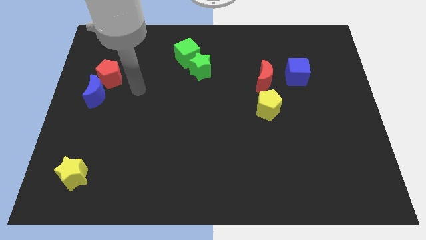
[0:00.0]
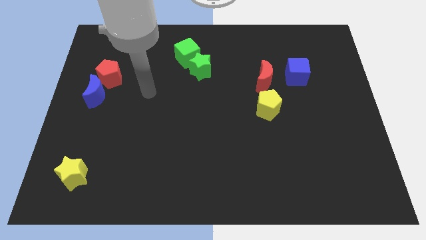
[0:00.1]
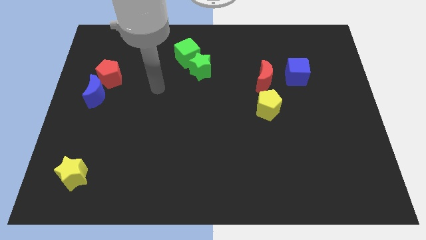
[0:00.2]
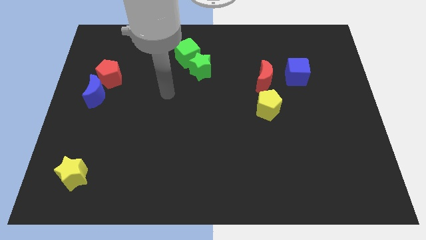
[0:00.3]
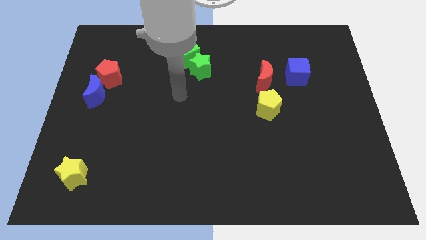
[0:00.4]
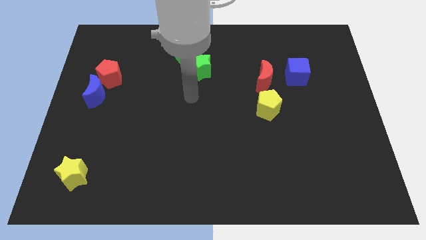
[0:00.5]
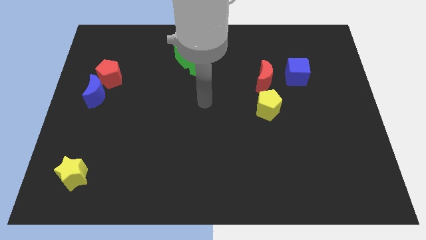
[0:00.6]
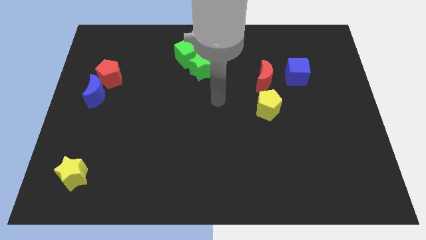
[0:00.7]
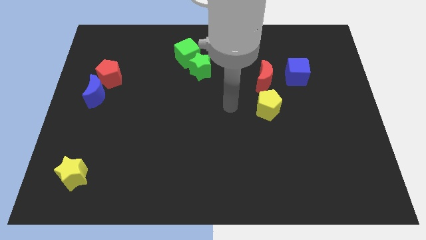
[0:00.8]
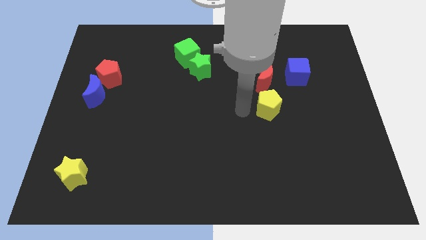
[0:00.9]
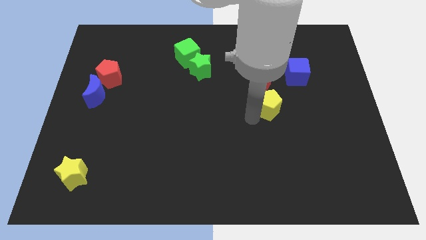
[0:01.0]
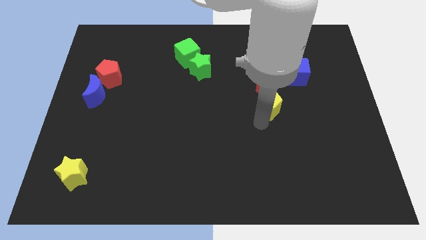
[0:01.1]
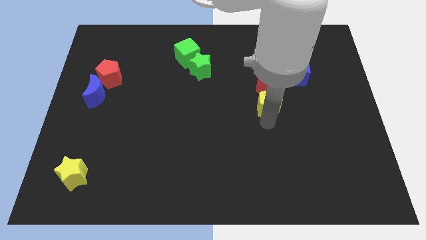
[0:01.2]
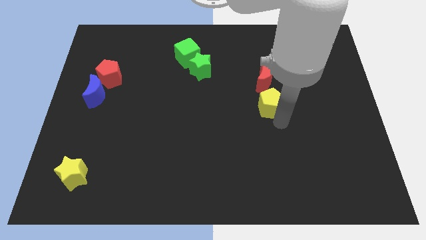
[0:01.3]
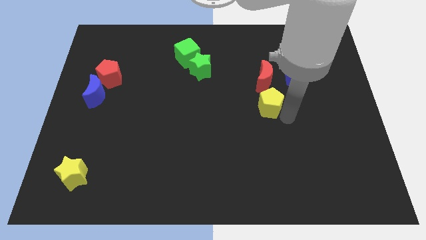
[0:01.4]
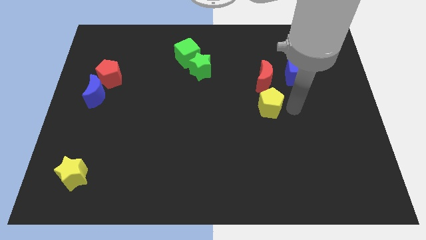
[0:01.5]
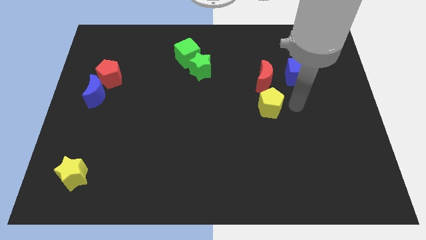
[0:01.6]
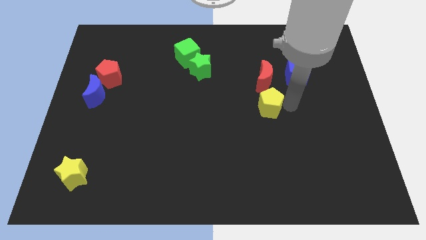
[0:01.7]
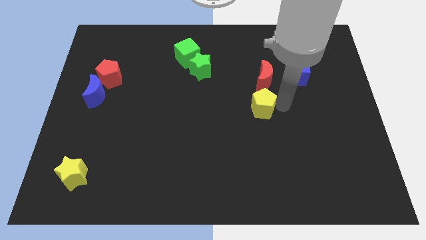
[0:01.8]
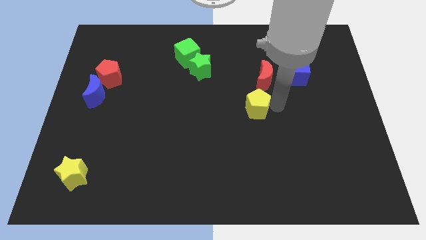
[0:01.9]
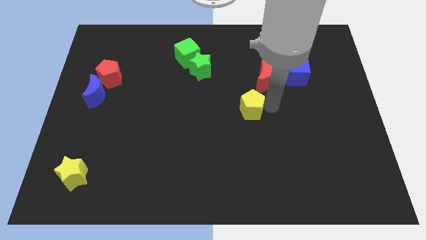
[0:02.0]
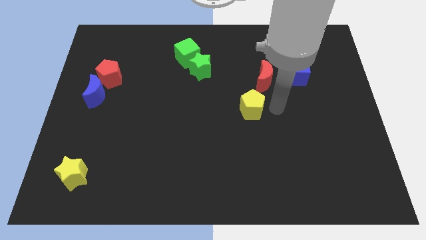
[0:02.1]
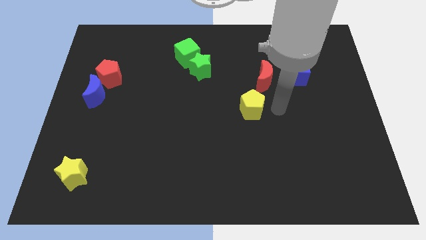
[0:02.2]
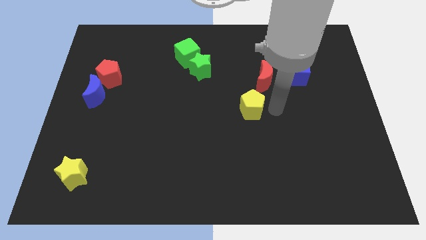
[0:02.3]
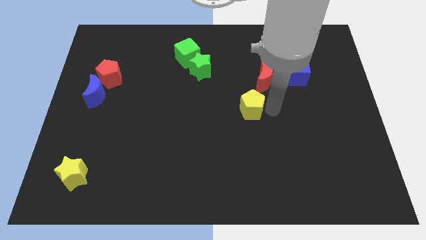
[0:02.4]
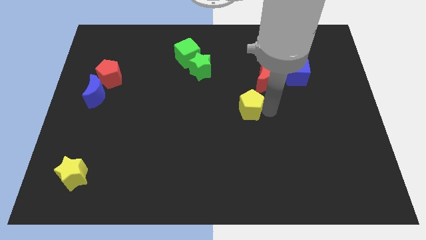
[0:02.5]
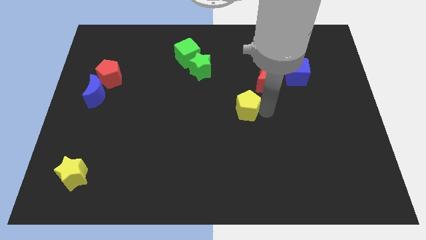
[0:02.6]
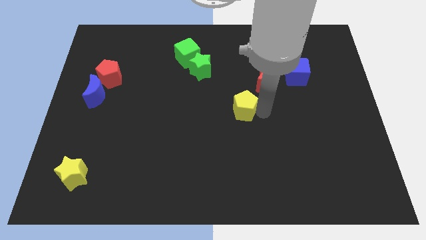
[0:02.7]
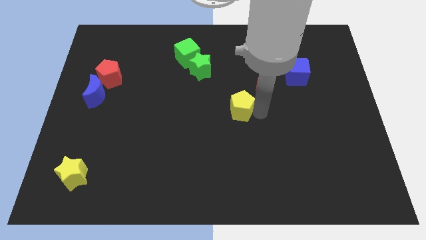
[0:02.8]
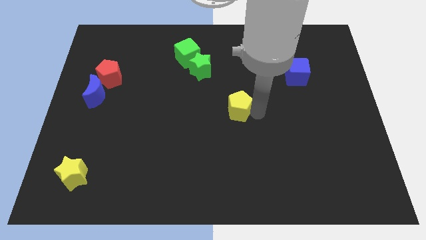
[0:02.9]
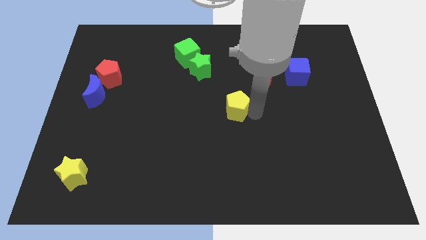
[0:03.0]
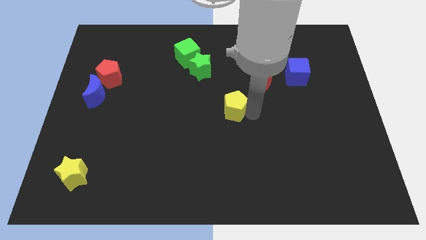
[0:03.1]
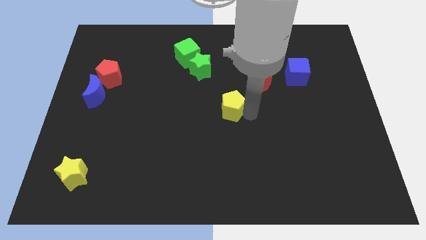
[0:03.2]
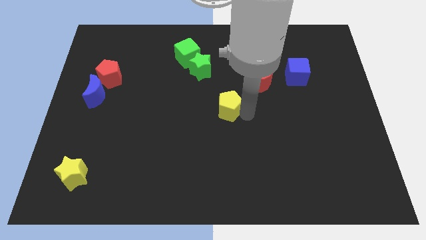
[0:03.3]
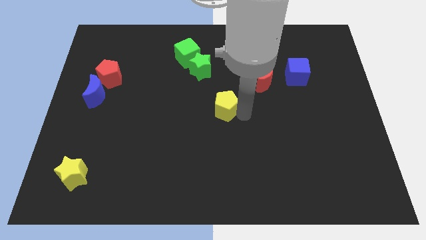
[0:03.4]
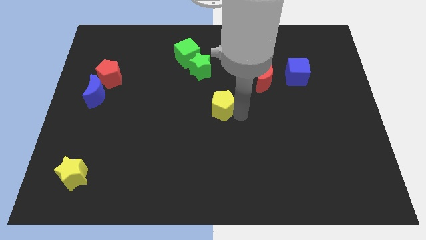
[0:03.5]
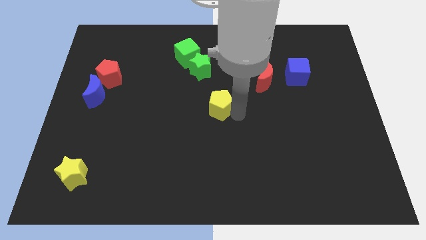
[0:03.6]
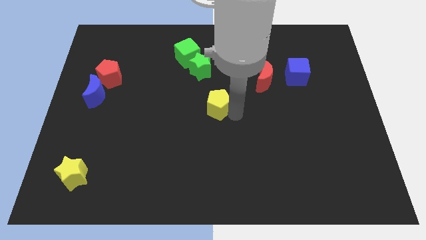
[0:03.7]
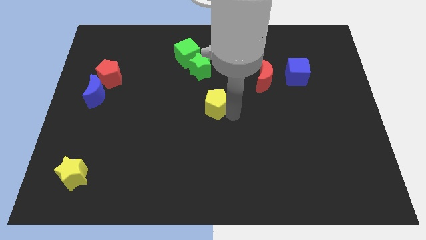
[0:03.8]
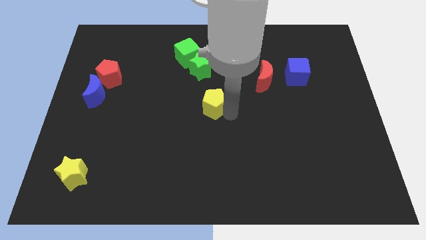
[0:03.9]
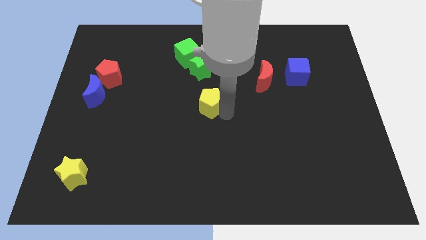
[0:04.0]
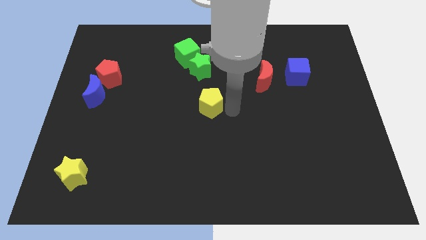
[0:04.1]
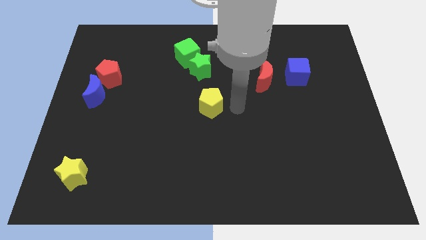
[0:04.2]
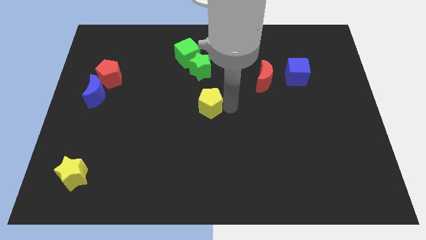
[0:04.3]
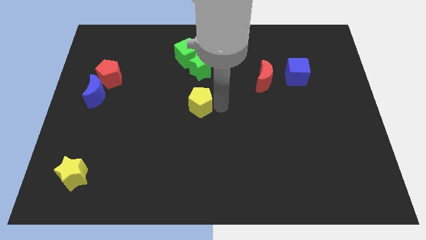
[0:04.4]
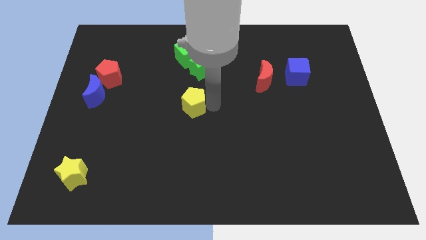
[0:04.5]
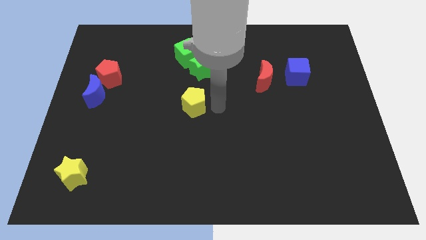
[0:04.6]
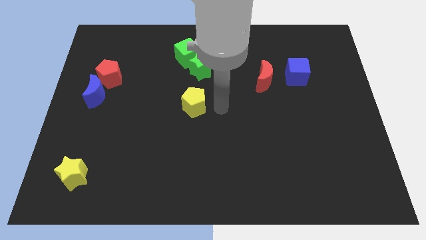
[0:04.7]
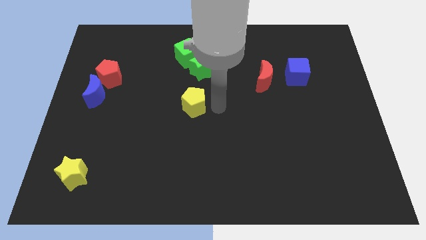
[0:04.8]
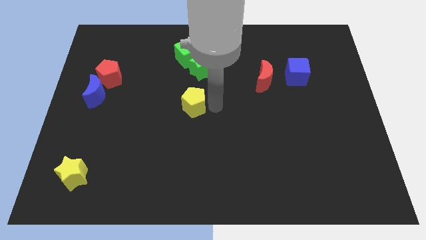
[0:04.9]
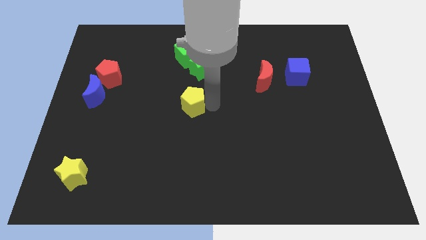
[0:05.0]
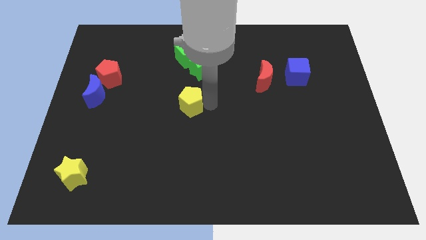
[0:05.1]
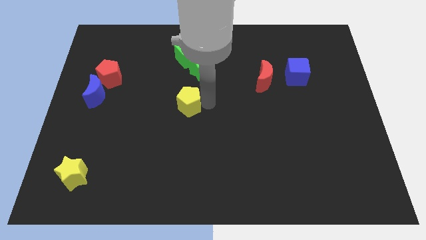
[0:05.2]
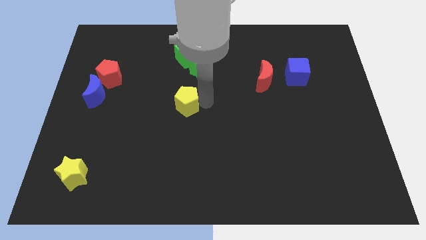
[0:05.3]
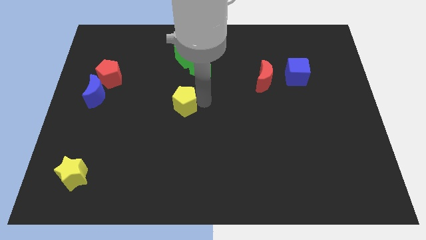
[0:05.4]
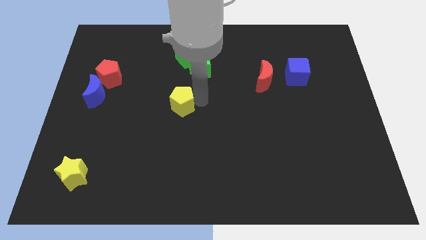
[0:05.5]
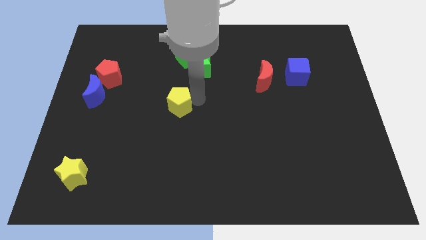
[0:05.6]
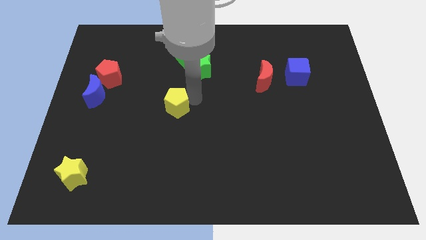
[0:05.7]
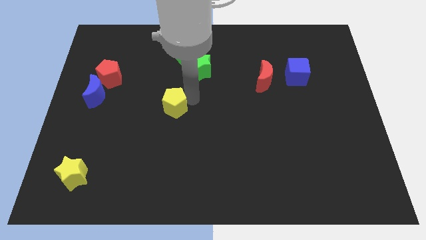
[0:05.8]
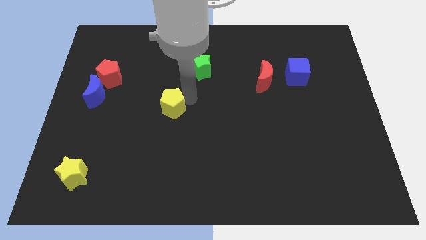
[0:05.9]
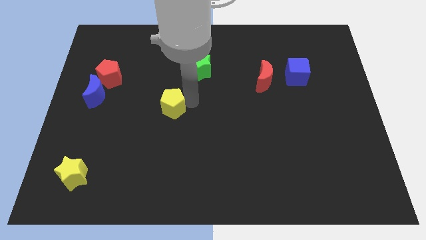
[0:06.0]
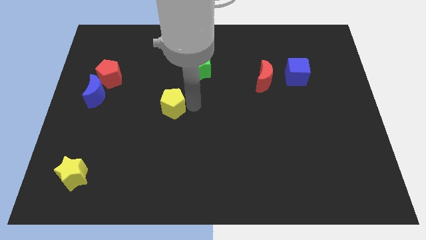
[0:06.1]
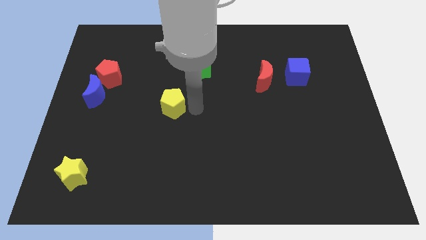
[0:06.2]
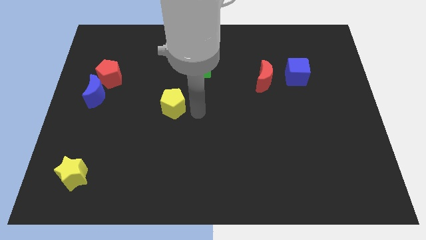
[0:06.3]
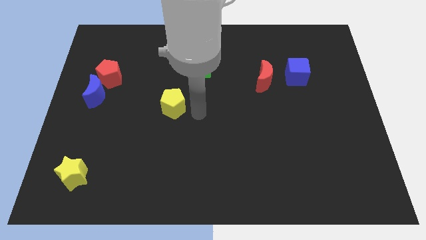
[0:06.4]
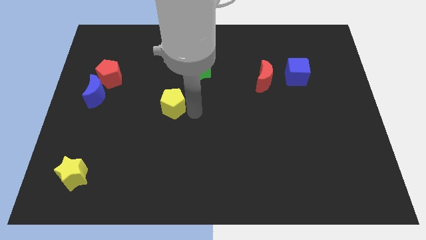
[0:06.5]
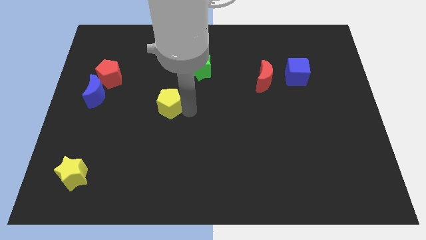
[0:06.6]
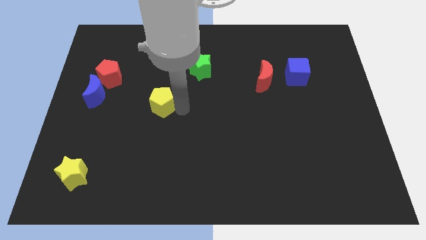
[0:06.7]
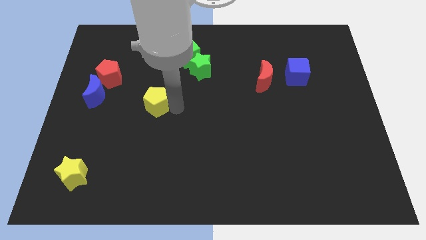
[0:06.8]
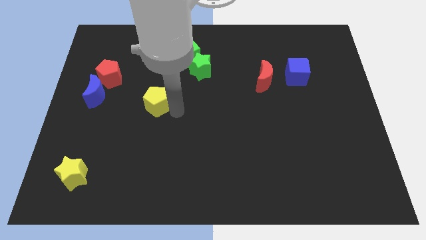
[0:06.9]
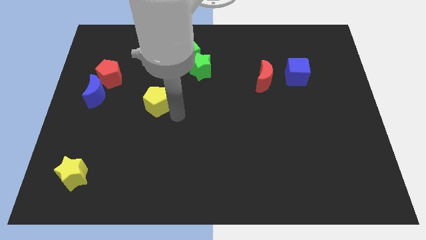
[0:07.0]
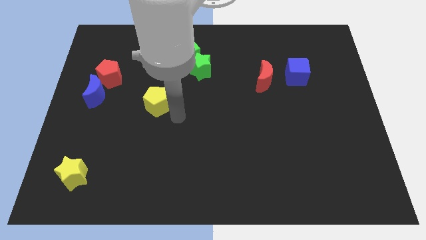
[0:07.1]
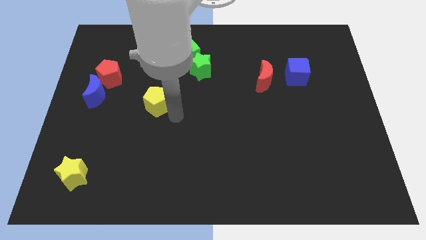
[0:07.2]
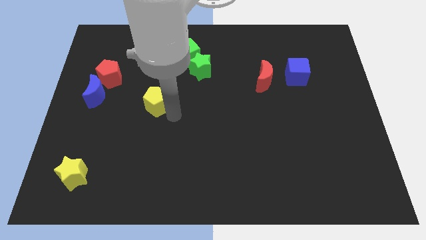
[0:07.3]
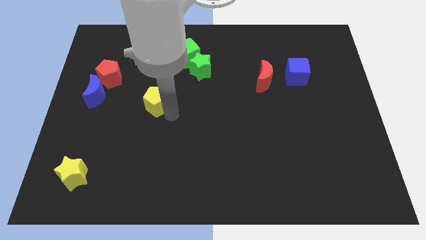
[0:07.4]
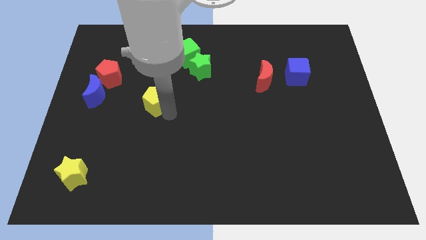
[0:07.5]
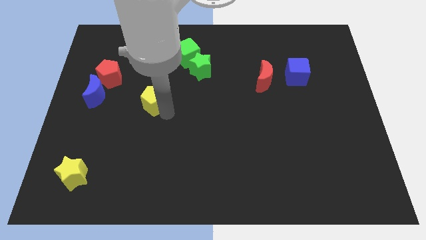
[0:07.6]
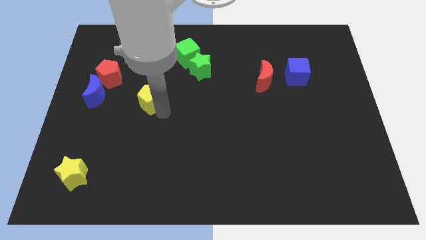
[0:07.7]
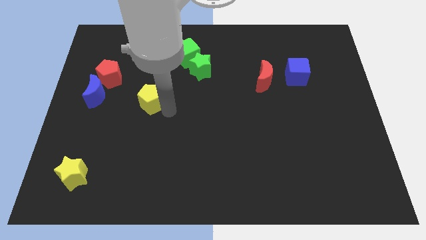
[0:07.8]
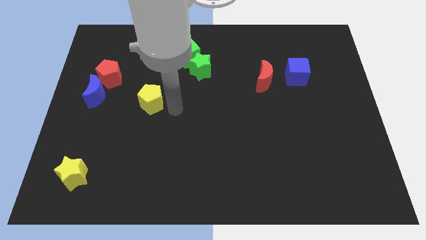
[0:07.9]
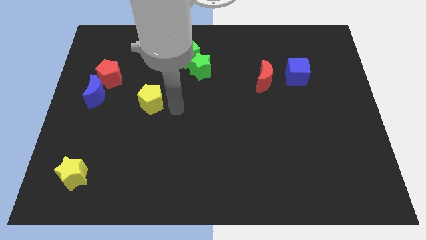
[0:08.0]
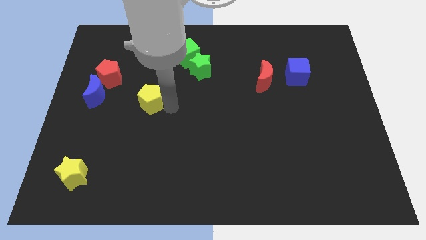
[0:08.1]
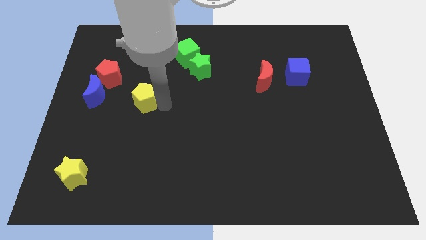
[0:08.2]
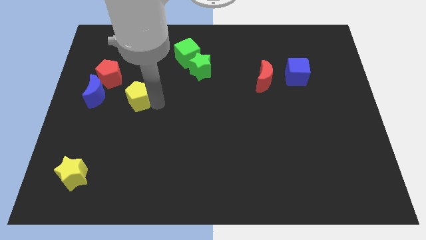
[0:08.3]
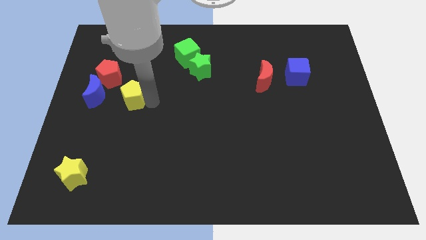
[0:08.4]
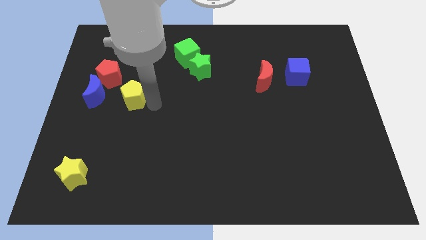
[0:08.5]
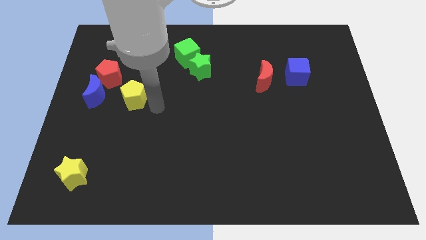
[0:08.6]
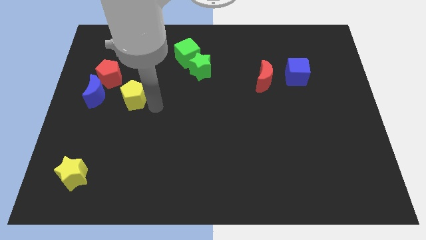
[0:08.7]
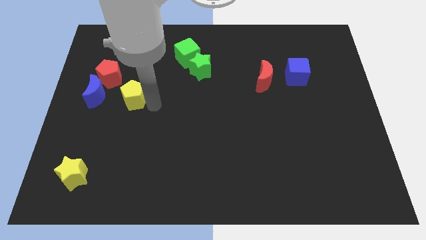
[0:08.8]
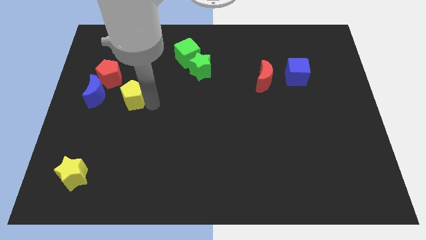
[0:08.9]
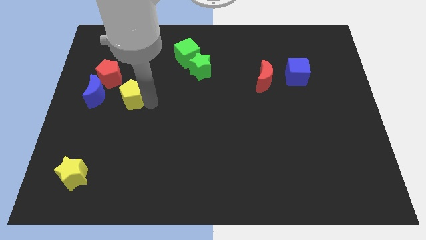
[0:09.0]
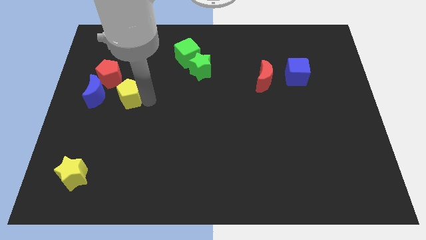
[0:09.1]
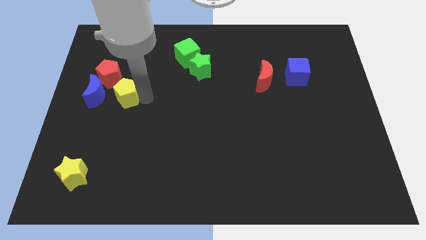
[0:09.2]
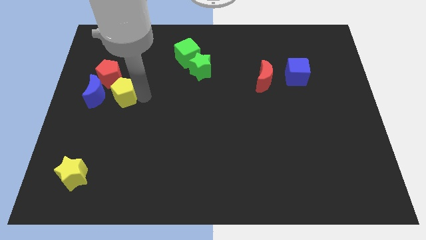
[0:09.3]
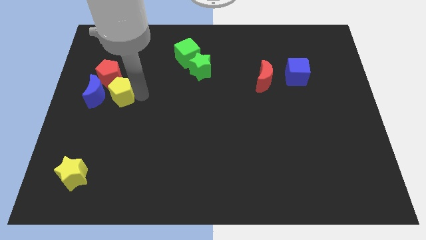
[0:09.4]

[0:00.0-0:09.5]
move the yellow pentagon towards the blue moon
